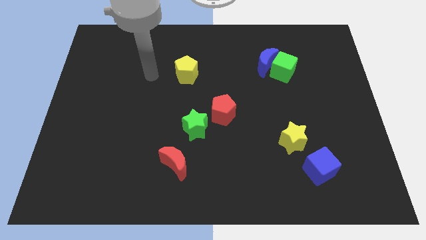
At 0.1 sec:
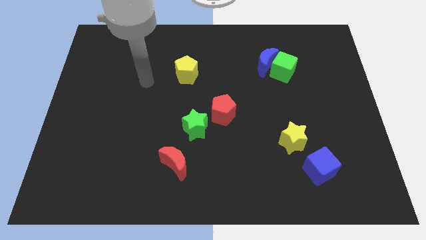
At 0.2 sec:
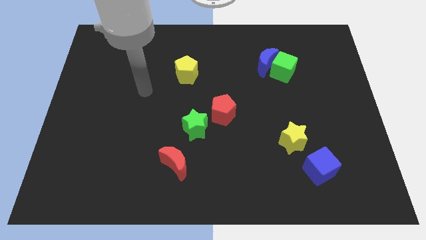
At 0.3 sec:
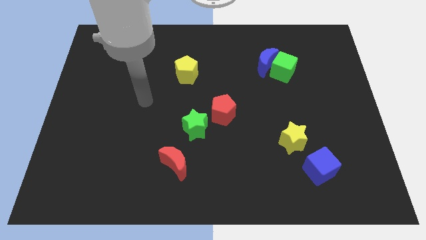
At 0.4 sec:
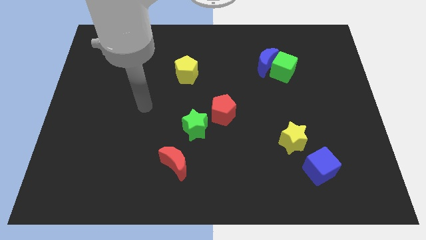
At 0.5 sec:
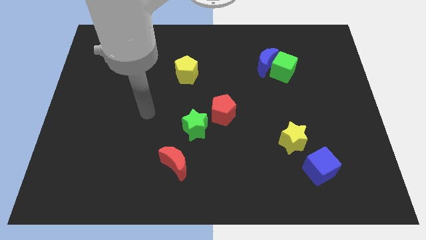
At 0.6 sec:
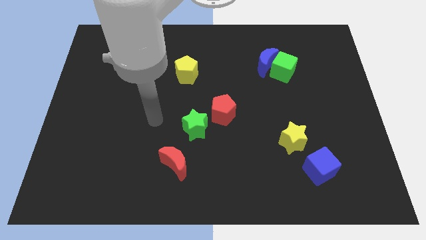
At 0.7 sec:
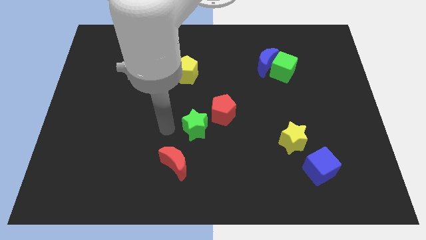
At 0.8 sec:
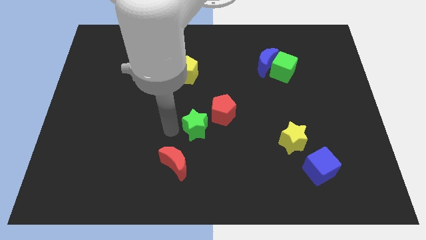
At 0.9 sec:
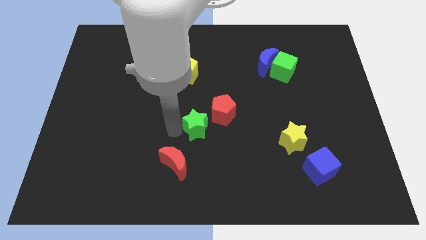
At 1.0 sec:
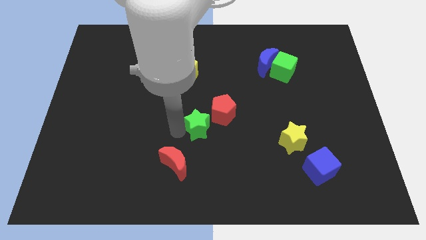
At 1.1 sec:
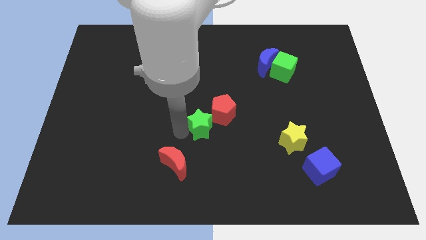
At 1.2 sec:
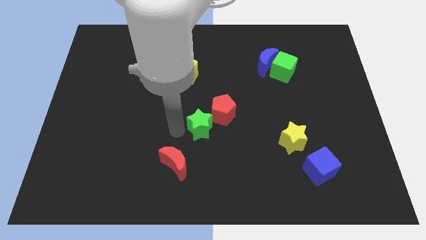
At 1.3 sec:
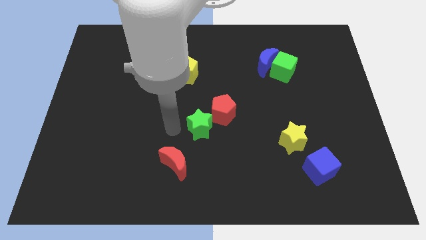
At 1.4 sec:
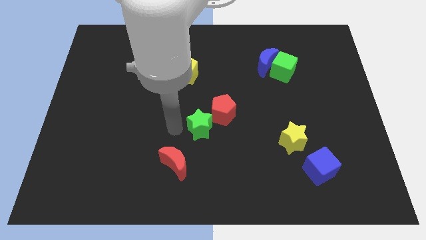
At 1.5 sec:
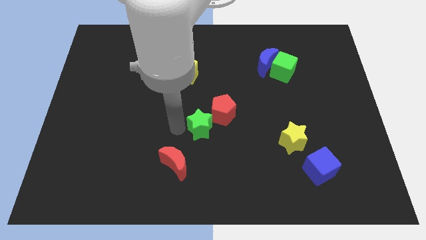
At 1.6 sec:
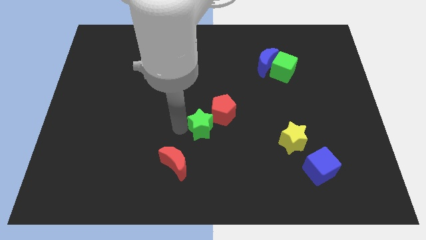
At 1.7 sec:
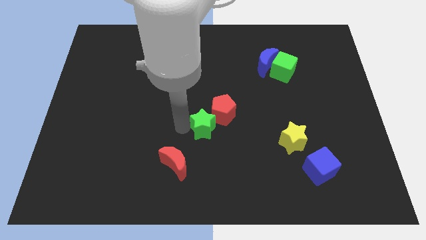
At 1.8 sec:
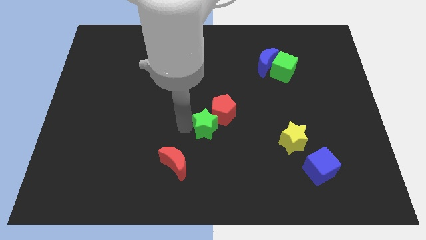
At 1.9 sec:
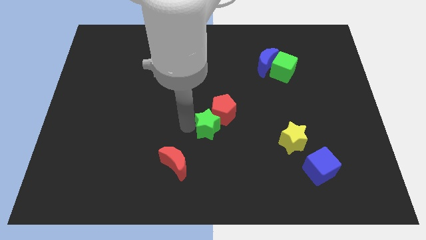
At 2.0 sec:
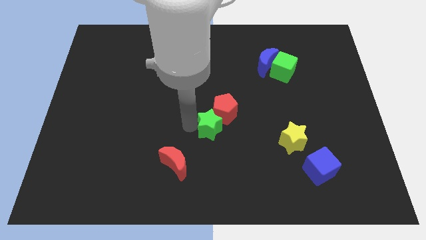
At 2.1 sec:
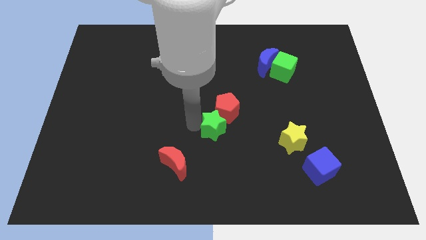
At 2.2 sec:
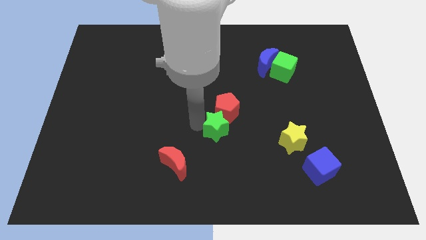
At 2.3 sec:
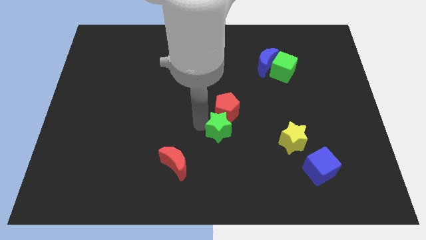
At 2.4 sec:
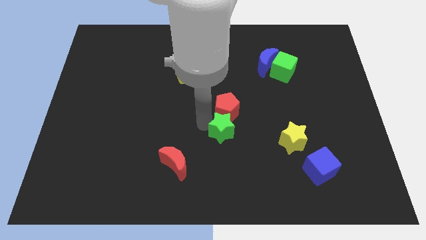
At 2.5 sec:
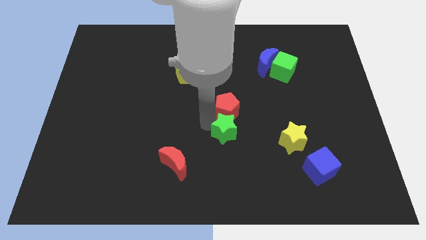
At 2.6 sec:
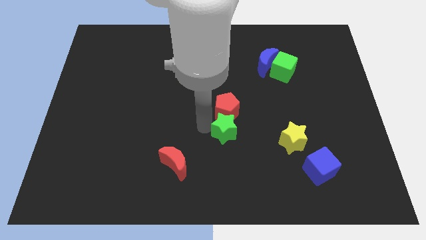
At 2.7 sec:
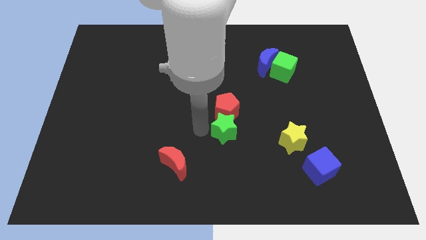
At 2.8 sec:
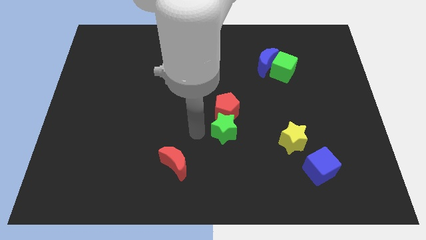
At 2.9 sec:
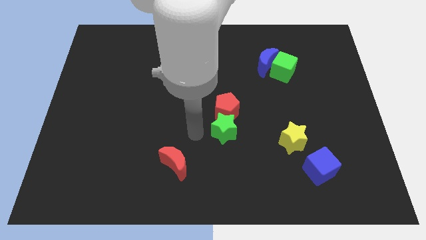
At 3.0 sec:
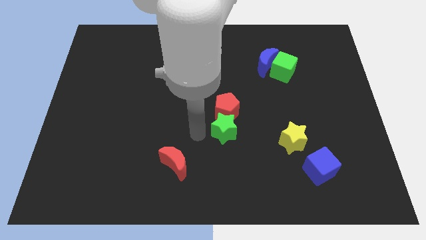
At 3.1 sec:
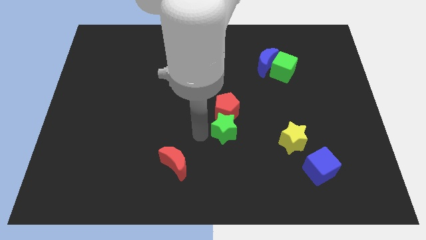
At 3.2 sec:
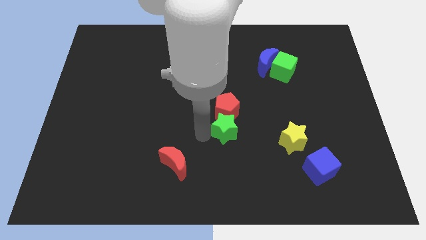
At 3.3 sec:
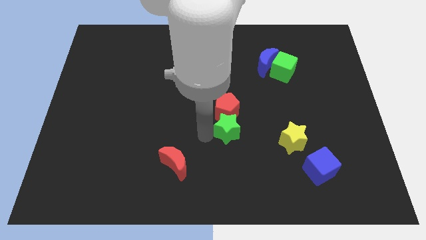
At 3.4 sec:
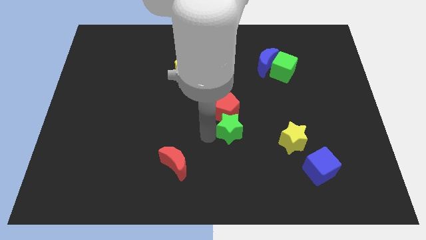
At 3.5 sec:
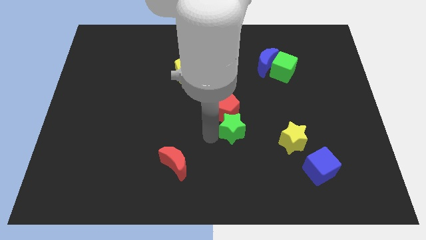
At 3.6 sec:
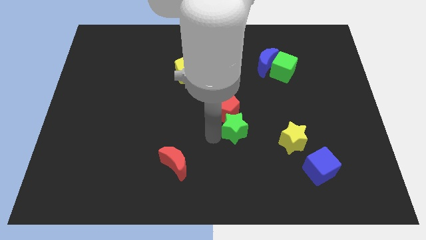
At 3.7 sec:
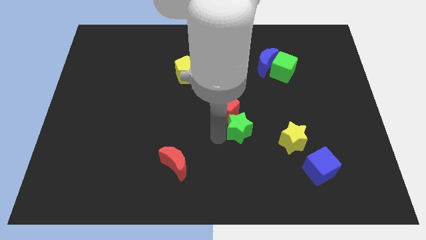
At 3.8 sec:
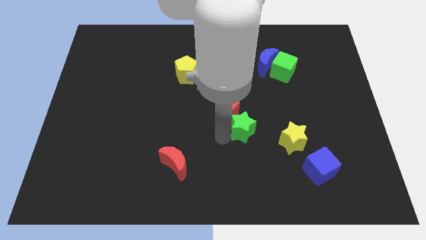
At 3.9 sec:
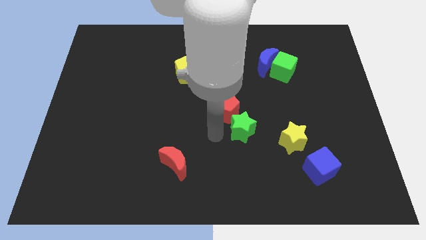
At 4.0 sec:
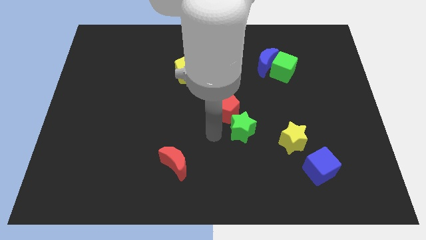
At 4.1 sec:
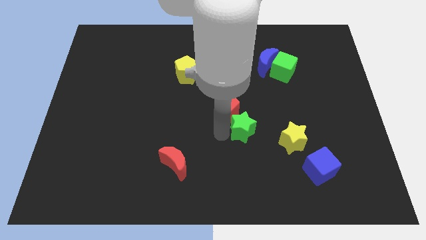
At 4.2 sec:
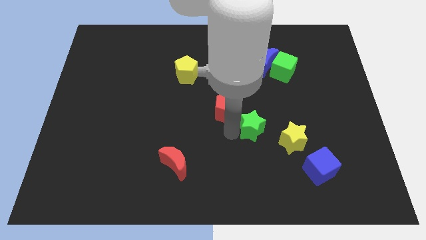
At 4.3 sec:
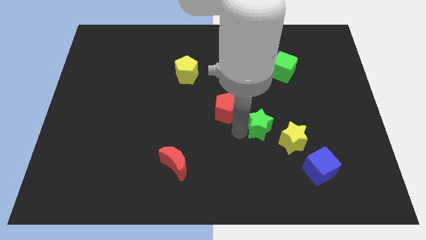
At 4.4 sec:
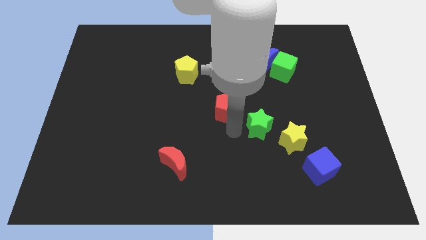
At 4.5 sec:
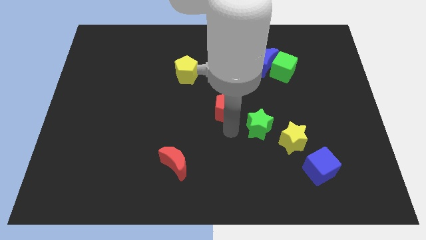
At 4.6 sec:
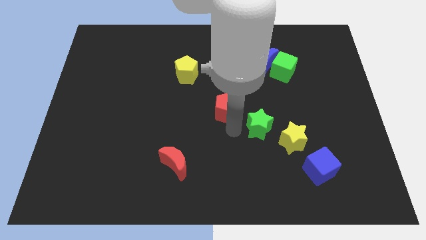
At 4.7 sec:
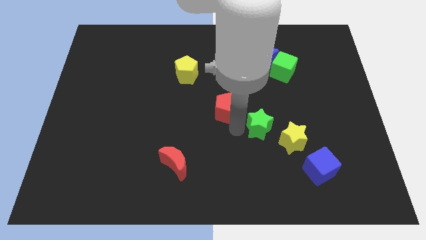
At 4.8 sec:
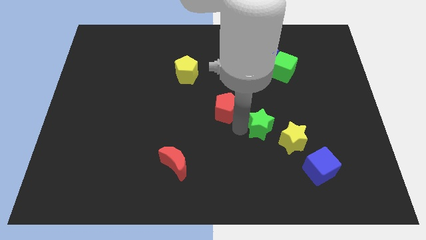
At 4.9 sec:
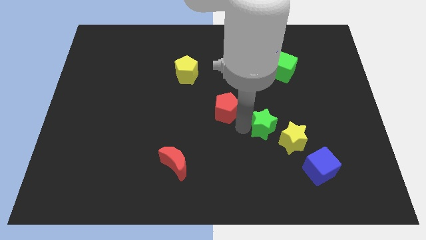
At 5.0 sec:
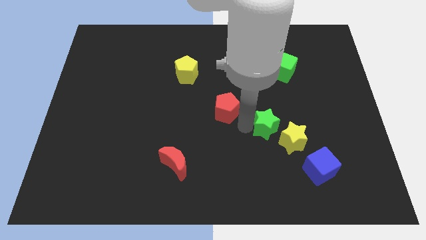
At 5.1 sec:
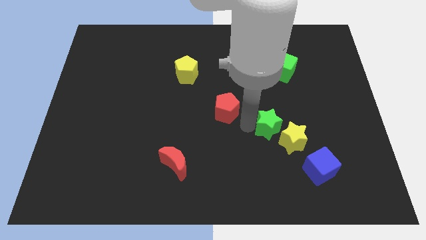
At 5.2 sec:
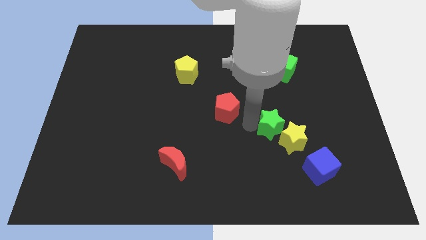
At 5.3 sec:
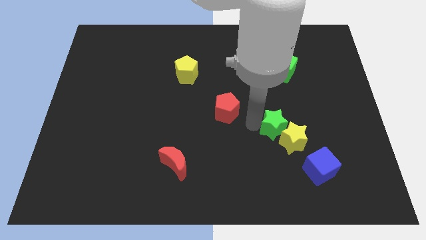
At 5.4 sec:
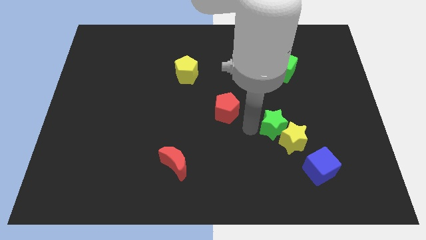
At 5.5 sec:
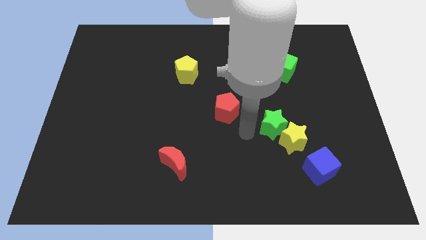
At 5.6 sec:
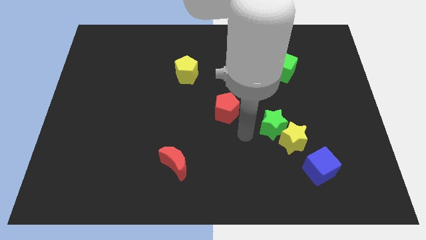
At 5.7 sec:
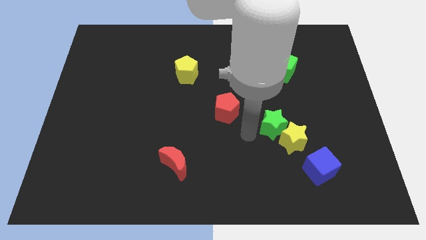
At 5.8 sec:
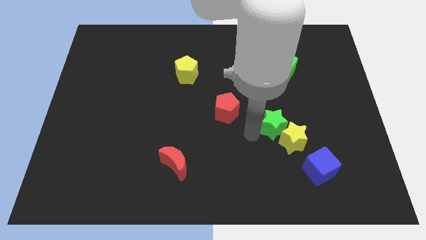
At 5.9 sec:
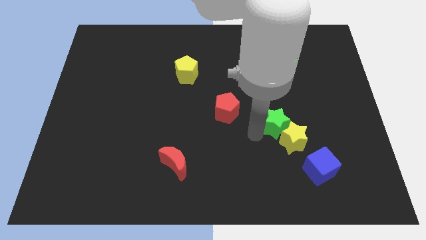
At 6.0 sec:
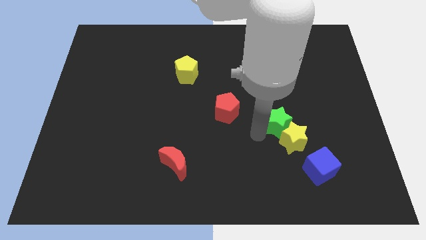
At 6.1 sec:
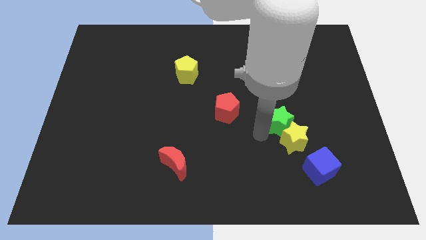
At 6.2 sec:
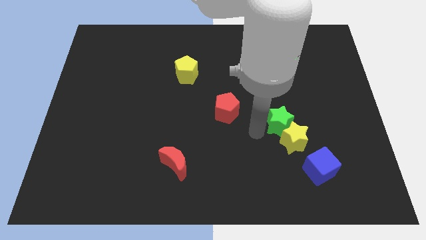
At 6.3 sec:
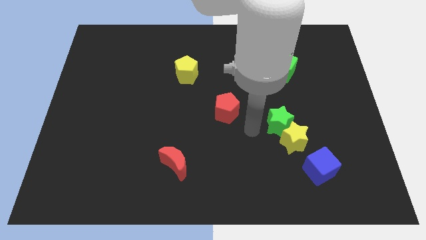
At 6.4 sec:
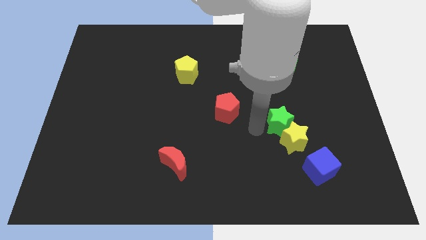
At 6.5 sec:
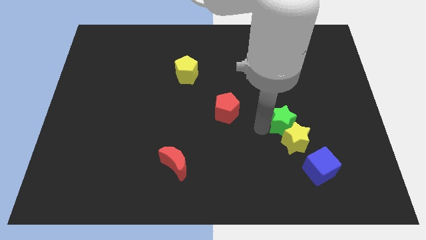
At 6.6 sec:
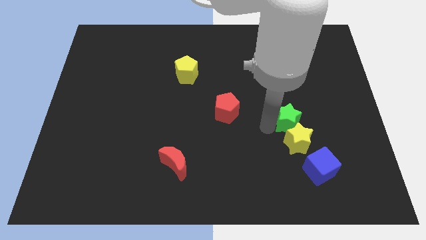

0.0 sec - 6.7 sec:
push the green star right

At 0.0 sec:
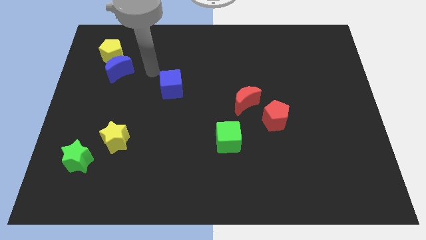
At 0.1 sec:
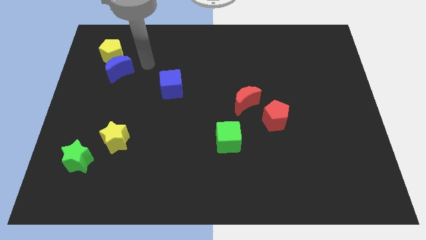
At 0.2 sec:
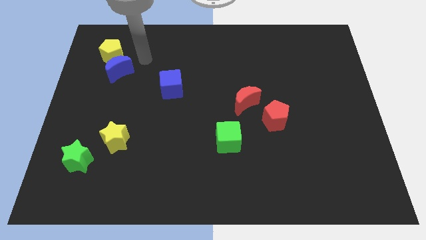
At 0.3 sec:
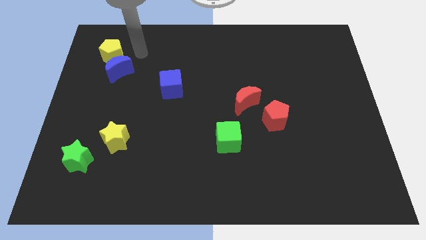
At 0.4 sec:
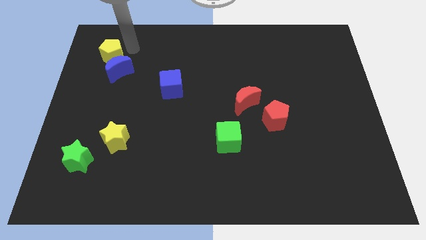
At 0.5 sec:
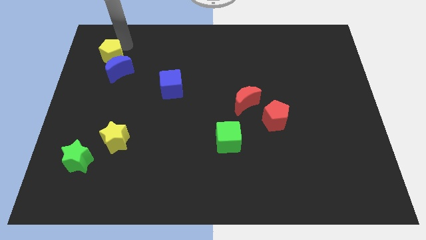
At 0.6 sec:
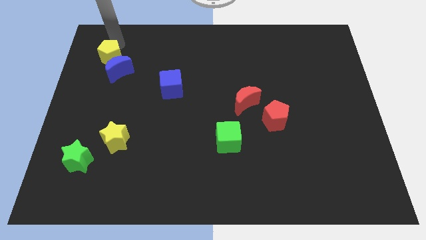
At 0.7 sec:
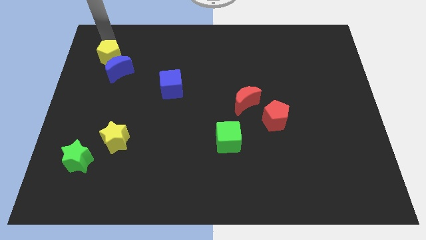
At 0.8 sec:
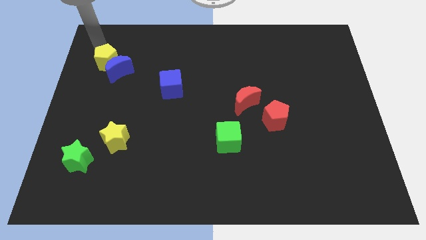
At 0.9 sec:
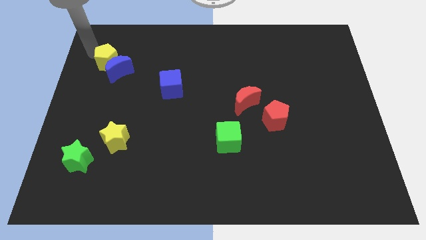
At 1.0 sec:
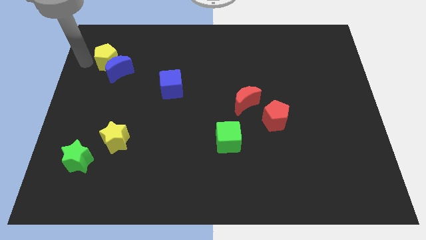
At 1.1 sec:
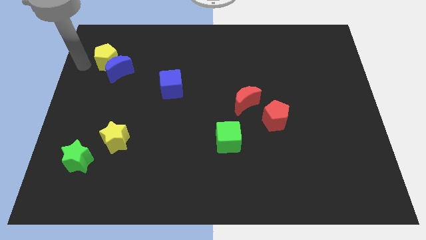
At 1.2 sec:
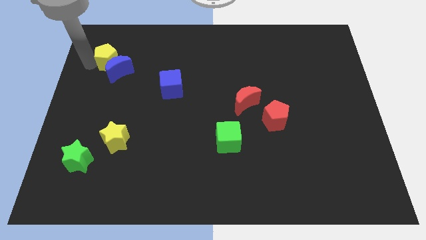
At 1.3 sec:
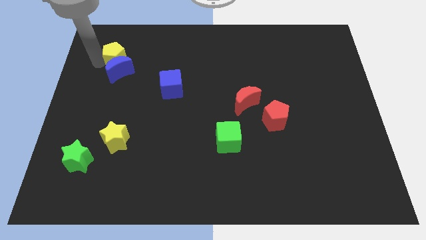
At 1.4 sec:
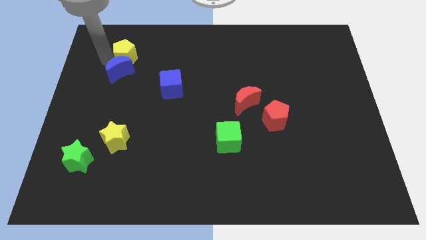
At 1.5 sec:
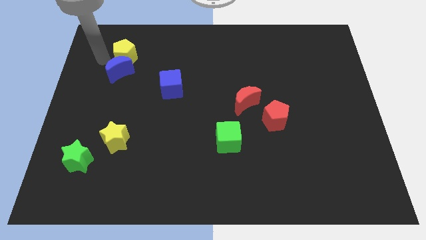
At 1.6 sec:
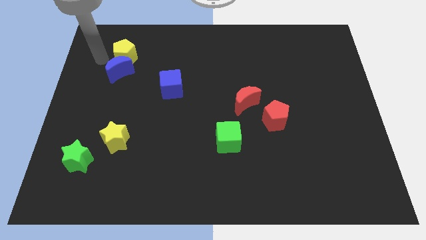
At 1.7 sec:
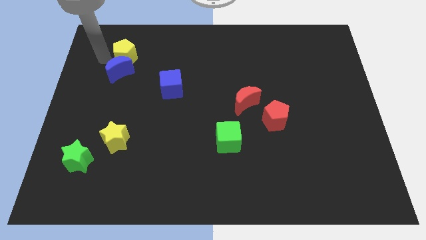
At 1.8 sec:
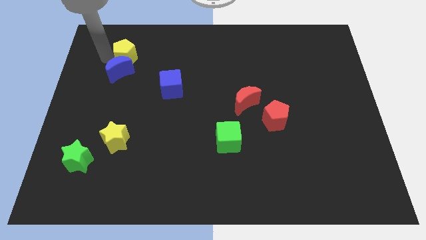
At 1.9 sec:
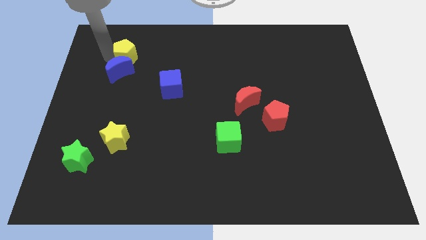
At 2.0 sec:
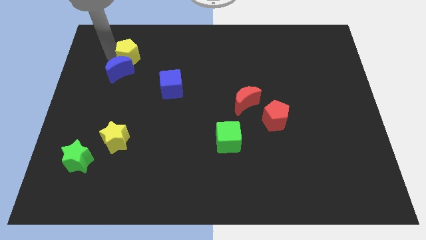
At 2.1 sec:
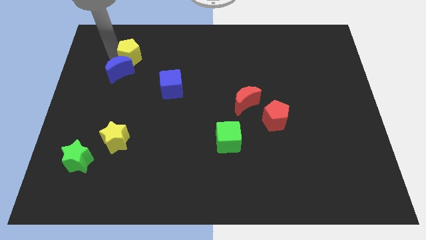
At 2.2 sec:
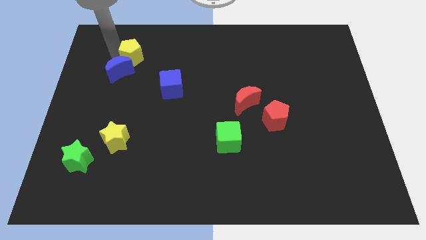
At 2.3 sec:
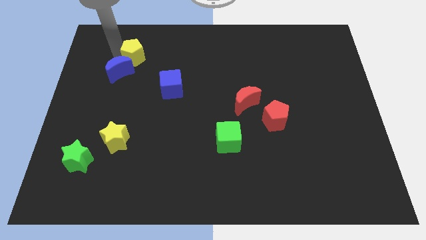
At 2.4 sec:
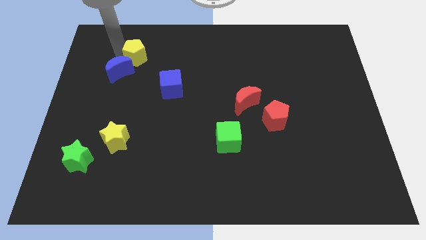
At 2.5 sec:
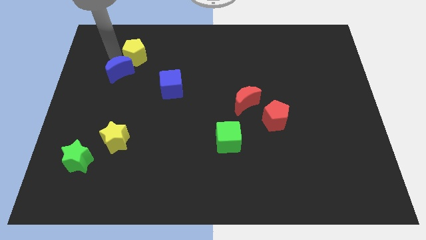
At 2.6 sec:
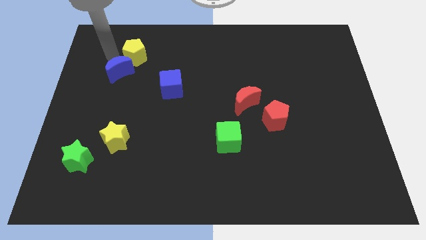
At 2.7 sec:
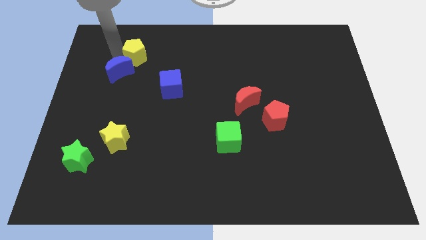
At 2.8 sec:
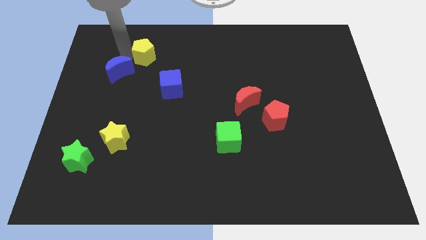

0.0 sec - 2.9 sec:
move the yellow pentagon to the right somewhat
